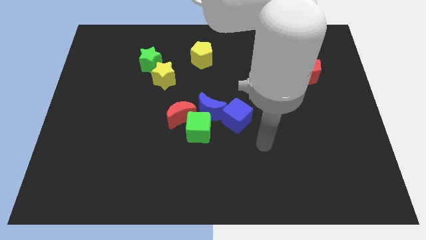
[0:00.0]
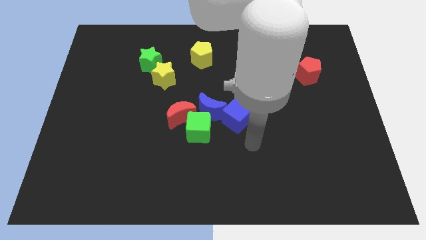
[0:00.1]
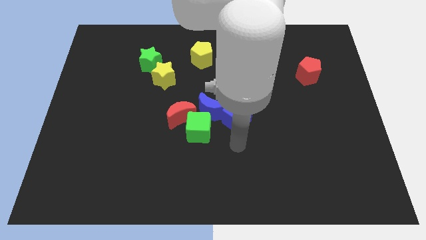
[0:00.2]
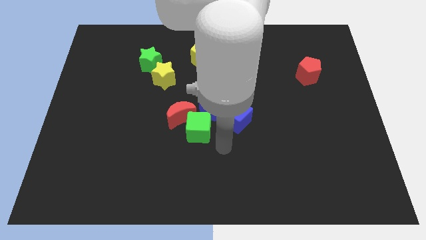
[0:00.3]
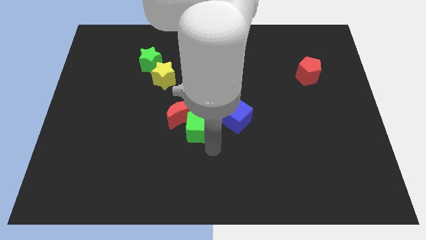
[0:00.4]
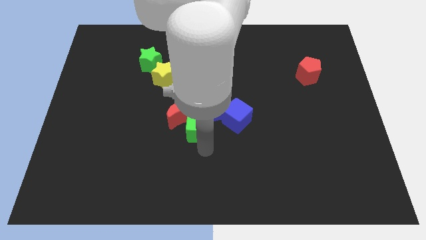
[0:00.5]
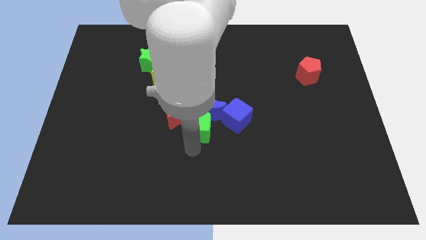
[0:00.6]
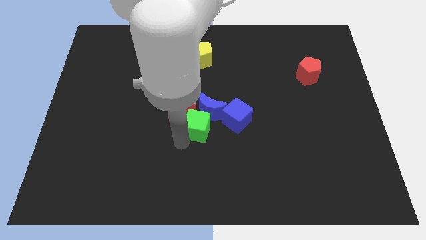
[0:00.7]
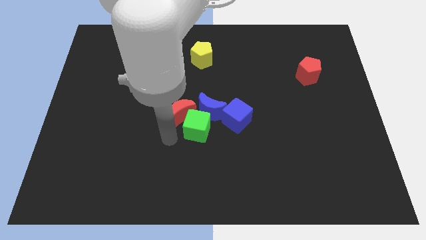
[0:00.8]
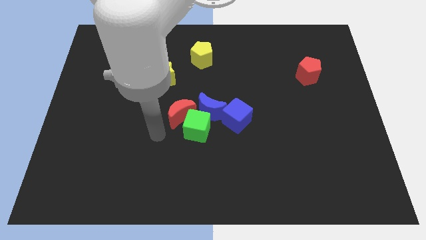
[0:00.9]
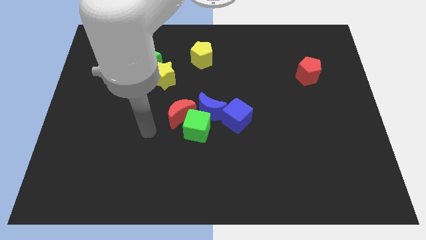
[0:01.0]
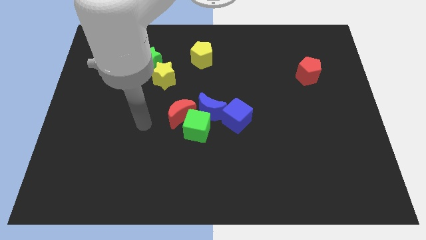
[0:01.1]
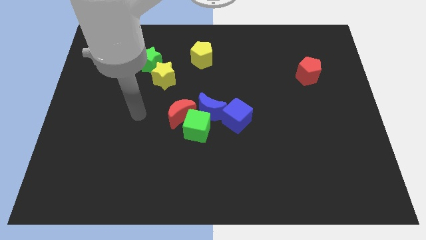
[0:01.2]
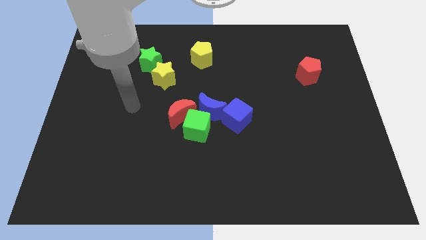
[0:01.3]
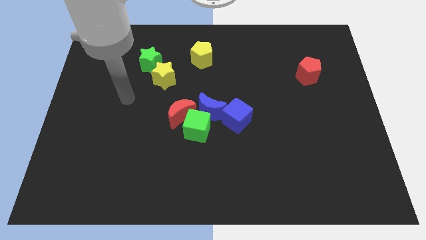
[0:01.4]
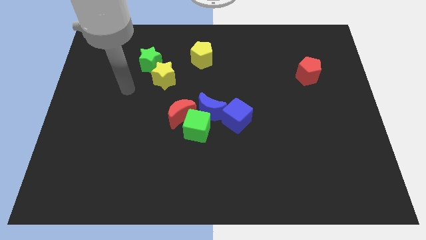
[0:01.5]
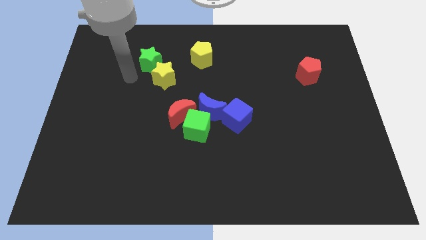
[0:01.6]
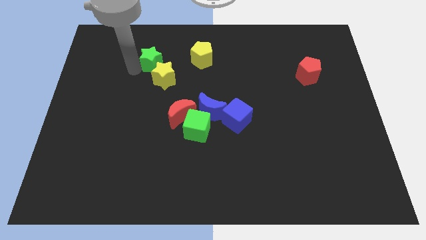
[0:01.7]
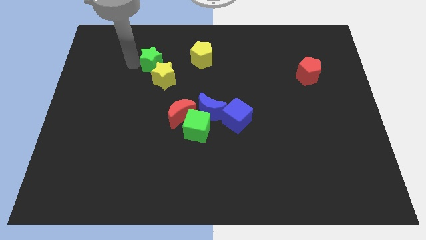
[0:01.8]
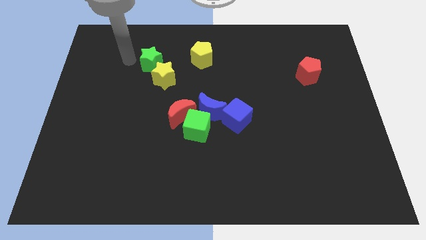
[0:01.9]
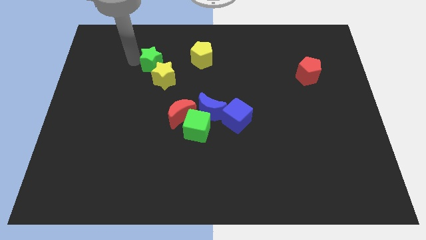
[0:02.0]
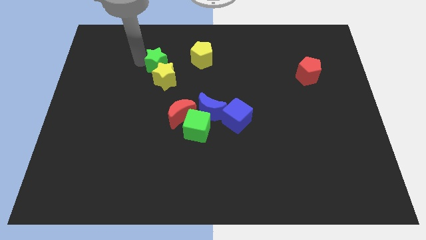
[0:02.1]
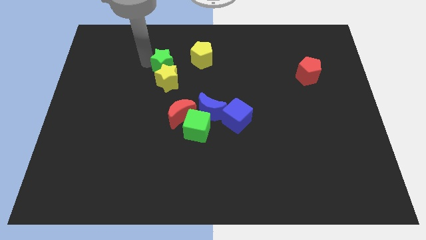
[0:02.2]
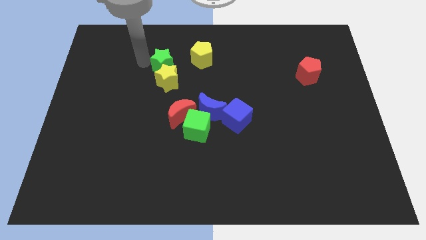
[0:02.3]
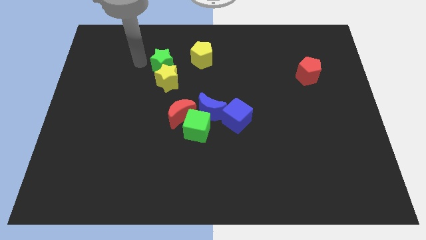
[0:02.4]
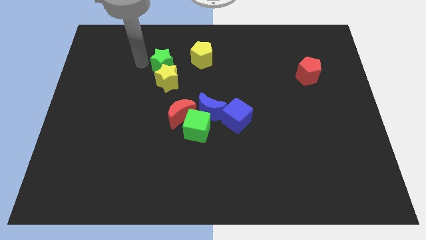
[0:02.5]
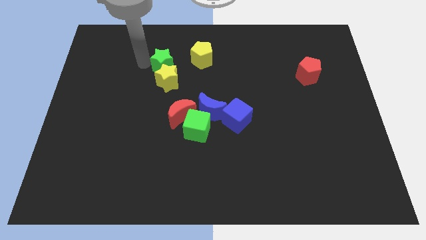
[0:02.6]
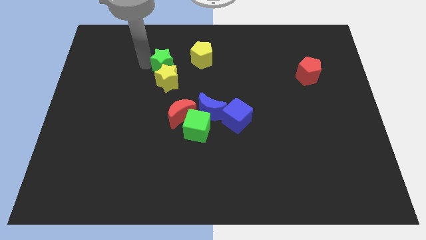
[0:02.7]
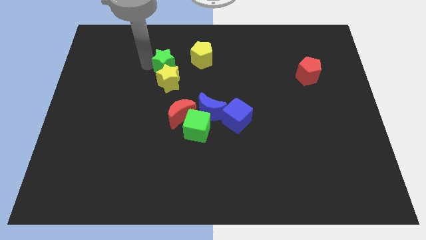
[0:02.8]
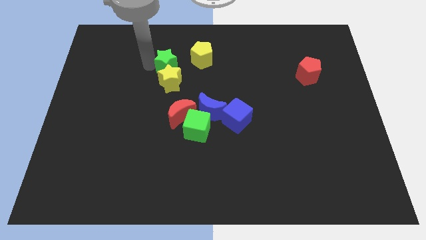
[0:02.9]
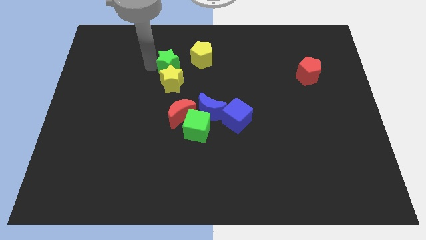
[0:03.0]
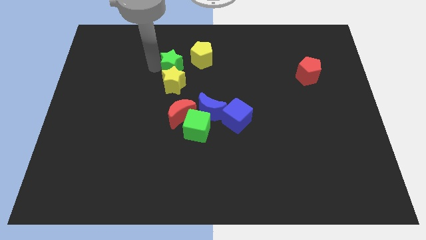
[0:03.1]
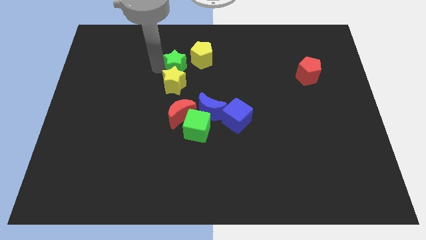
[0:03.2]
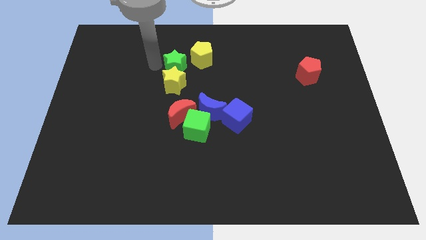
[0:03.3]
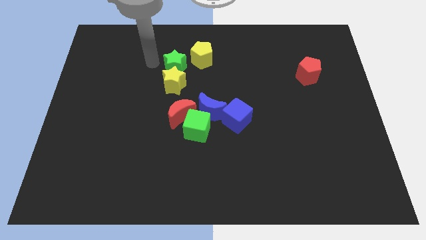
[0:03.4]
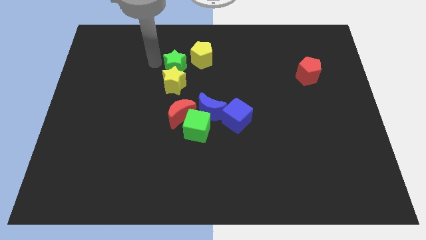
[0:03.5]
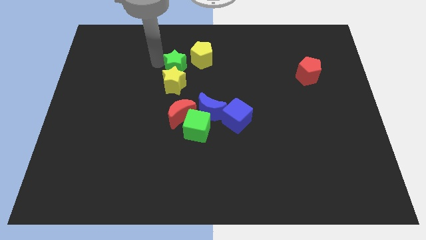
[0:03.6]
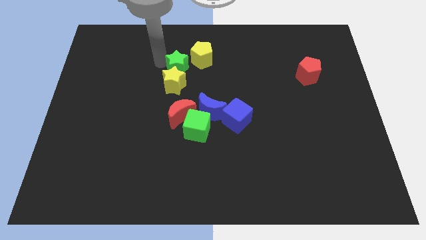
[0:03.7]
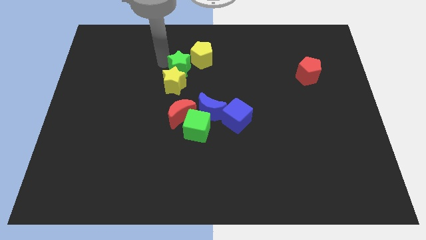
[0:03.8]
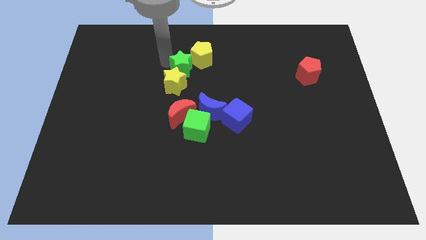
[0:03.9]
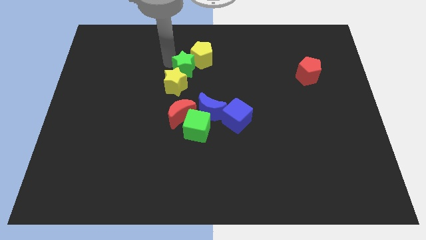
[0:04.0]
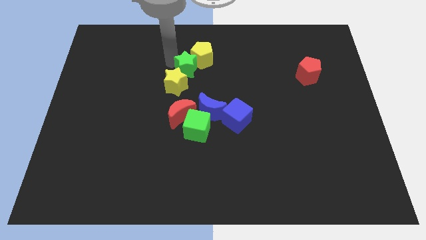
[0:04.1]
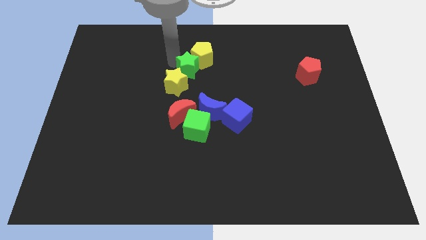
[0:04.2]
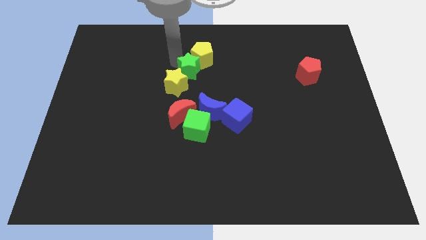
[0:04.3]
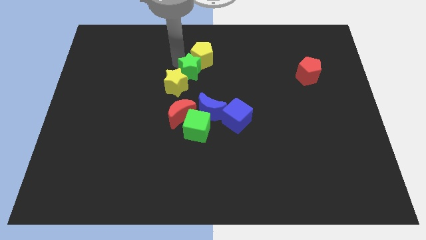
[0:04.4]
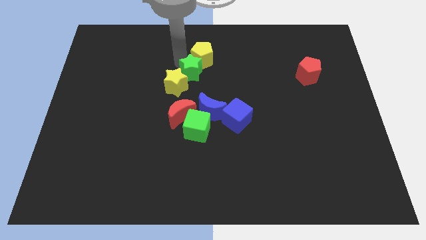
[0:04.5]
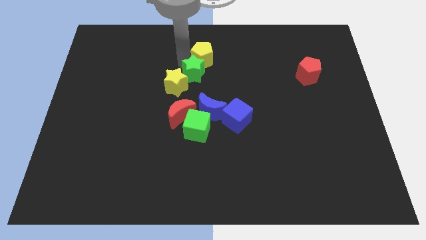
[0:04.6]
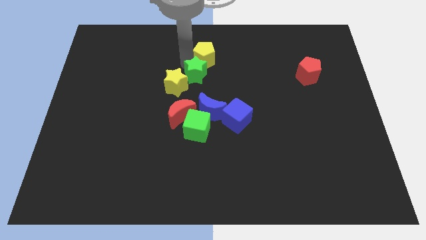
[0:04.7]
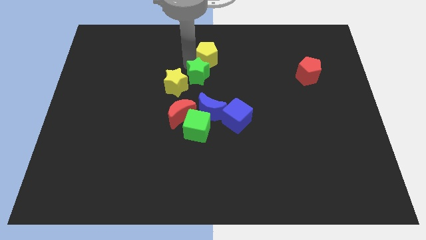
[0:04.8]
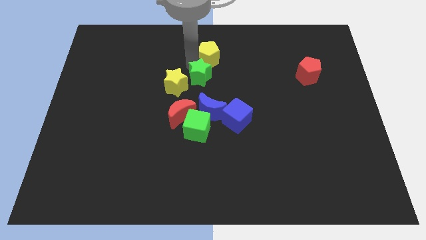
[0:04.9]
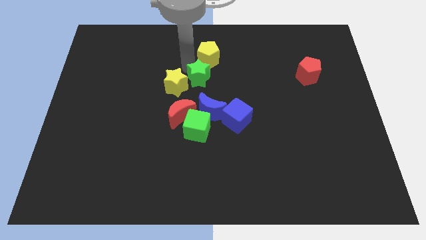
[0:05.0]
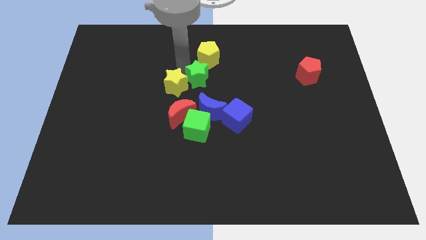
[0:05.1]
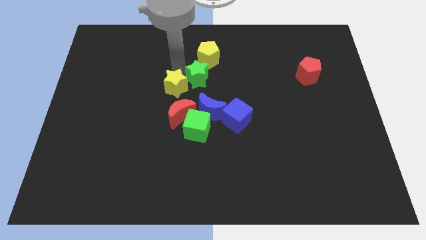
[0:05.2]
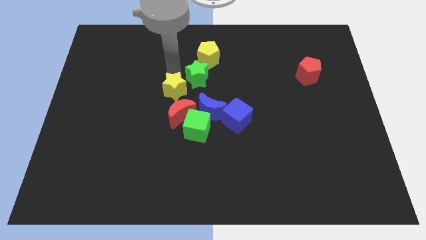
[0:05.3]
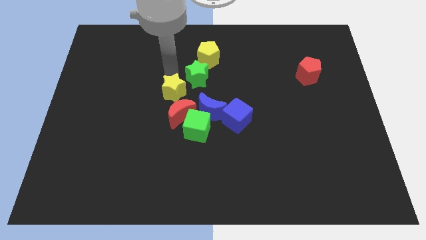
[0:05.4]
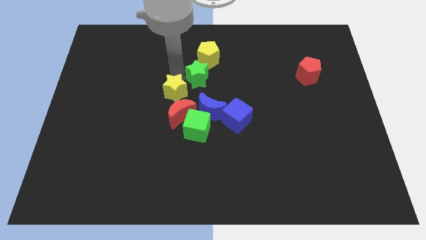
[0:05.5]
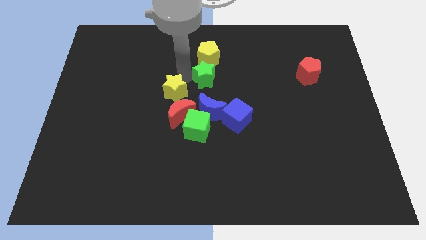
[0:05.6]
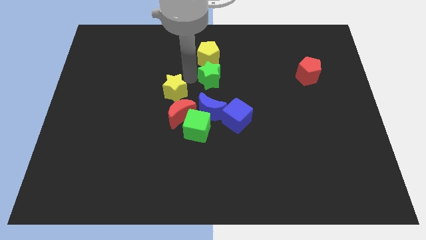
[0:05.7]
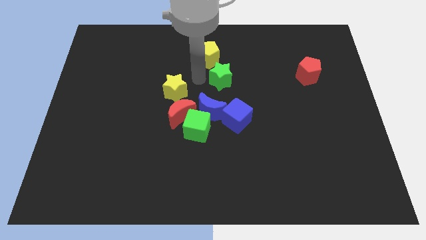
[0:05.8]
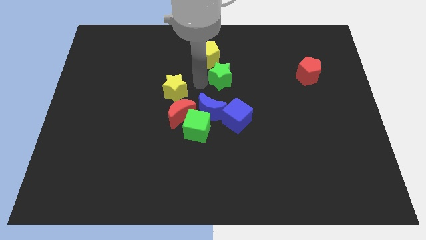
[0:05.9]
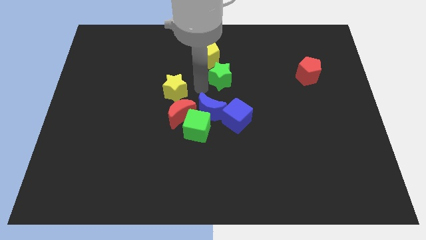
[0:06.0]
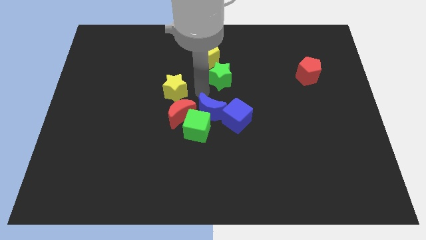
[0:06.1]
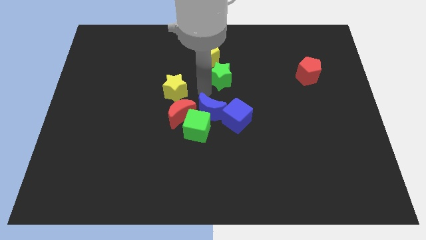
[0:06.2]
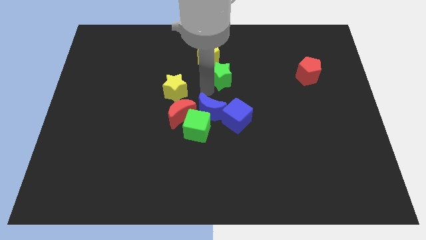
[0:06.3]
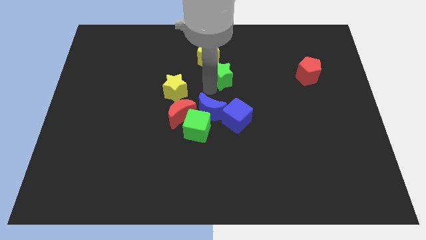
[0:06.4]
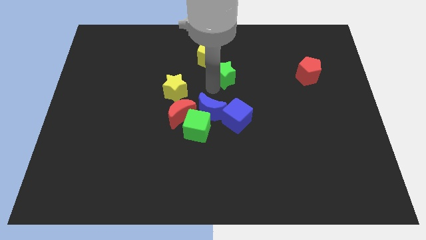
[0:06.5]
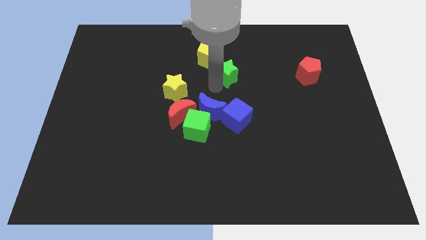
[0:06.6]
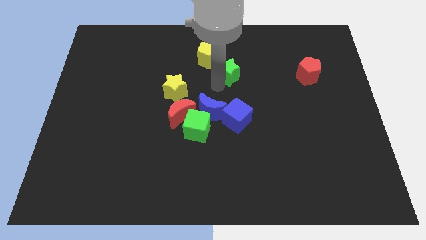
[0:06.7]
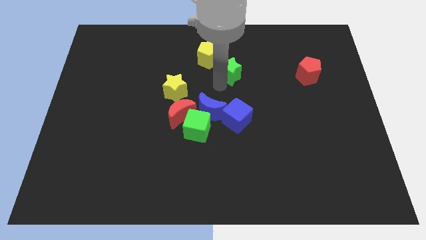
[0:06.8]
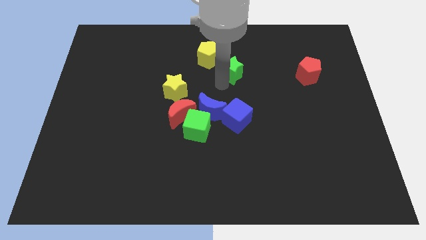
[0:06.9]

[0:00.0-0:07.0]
move the green star right

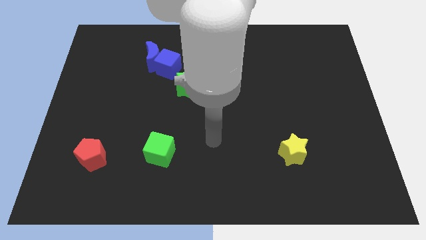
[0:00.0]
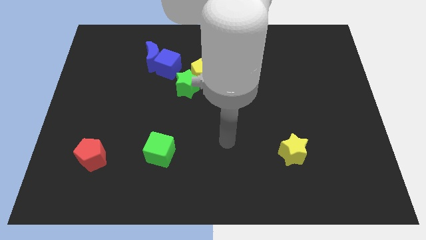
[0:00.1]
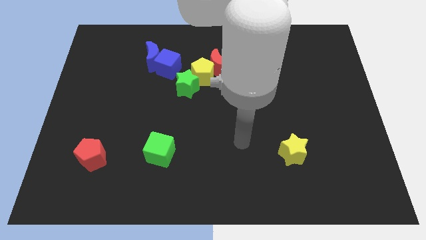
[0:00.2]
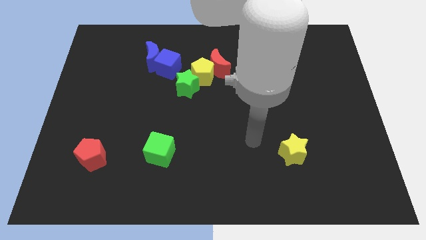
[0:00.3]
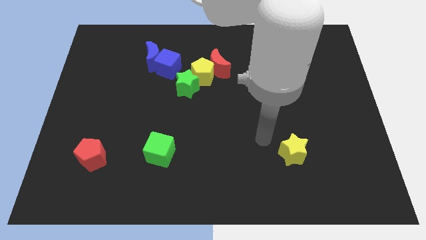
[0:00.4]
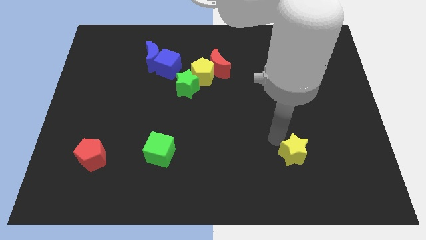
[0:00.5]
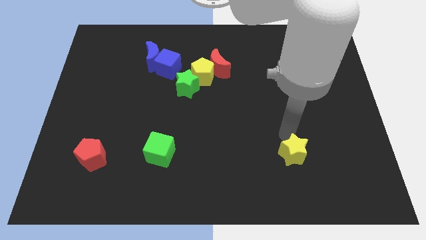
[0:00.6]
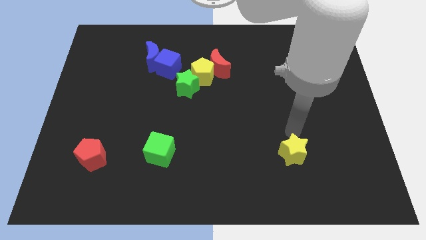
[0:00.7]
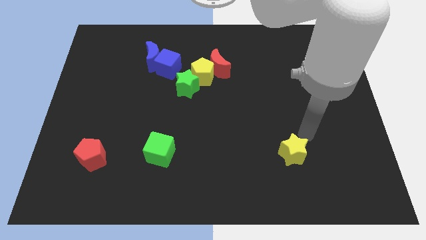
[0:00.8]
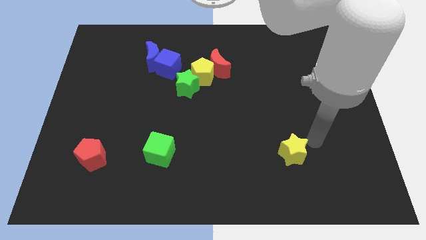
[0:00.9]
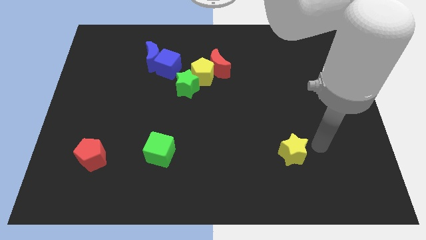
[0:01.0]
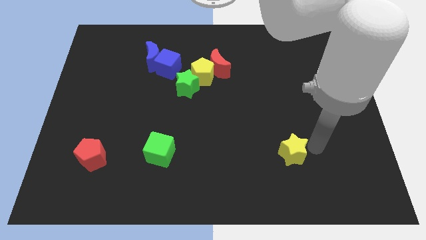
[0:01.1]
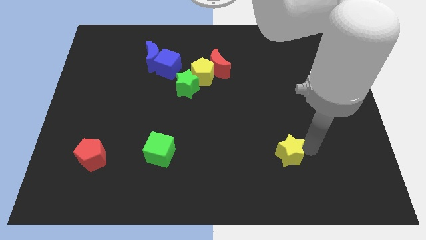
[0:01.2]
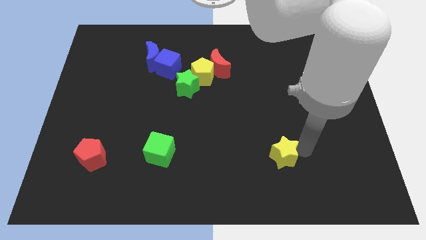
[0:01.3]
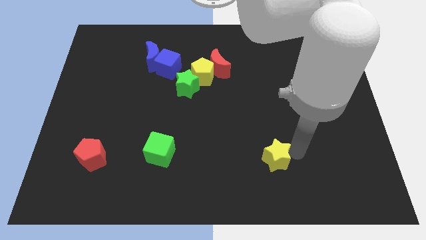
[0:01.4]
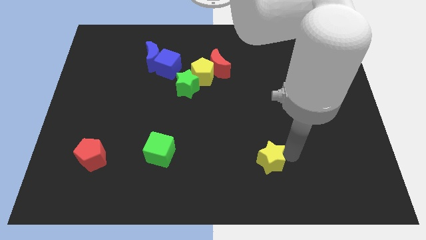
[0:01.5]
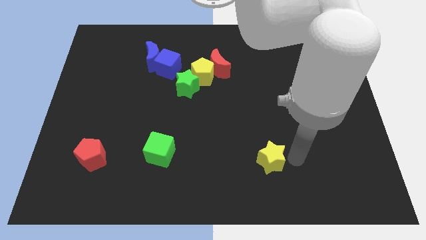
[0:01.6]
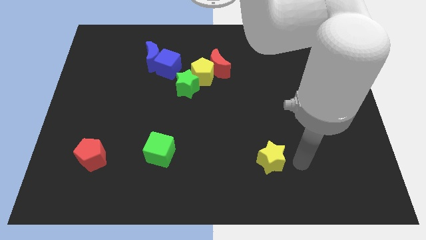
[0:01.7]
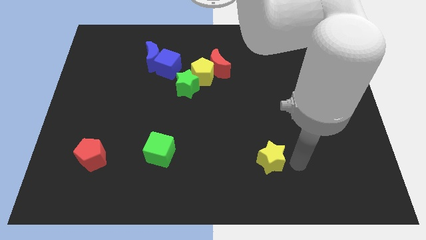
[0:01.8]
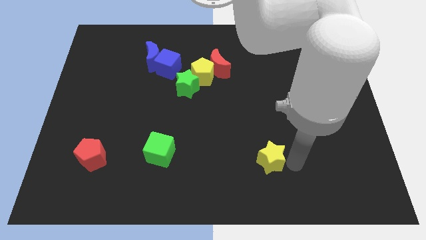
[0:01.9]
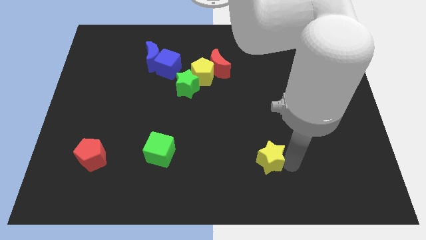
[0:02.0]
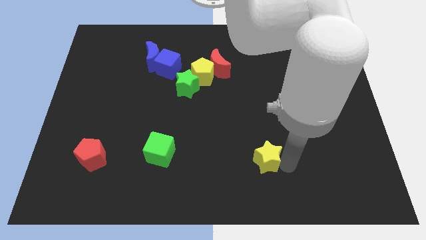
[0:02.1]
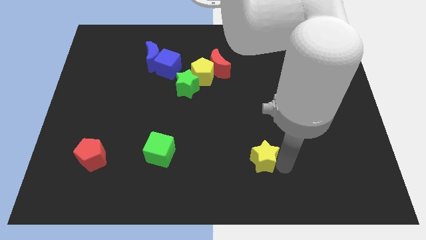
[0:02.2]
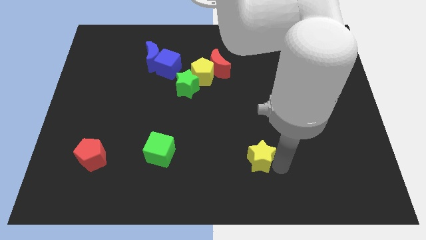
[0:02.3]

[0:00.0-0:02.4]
push the yellow star left somewhat
